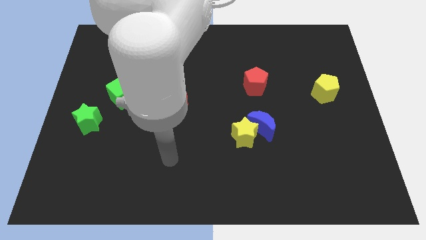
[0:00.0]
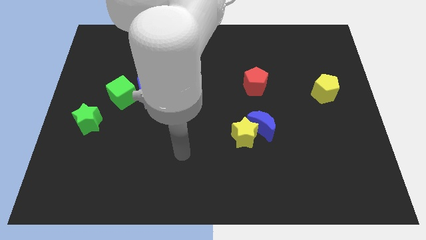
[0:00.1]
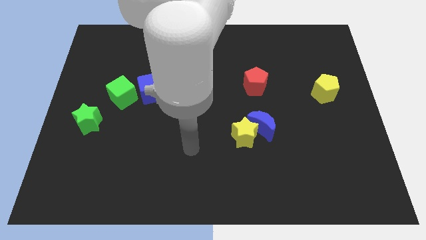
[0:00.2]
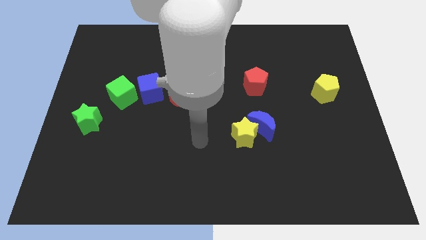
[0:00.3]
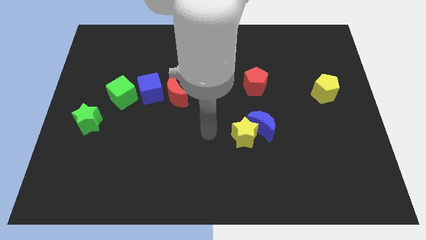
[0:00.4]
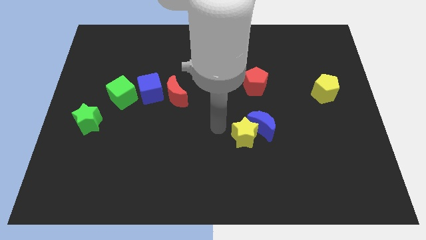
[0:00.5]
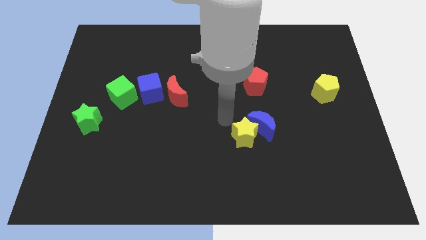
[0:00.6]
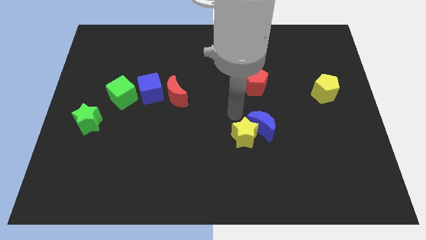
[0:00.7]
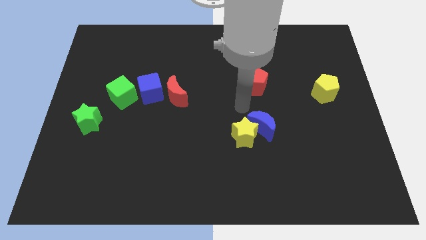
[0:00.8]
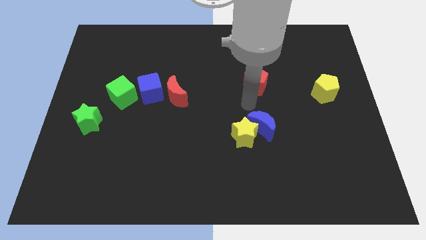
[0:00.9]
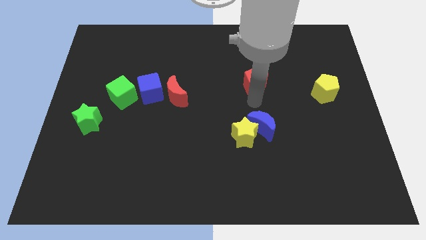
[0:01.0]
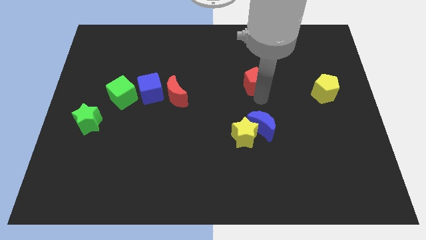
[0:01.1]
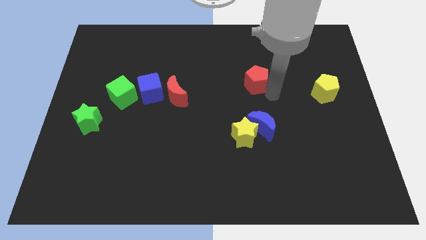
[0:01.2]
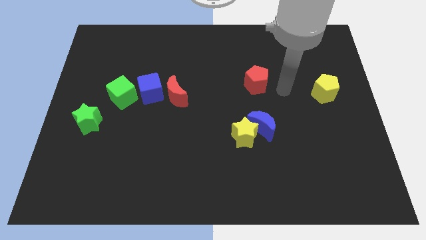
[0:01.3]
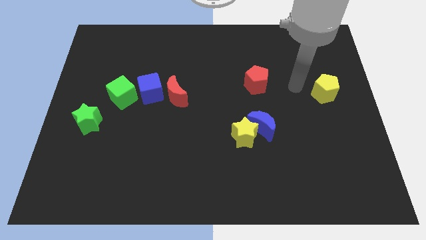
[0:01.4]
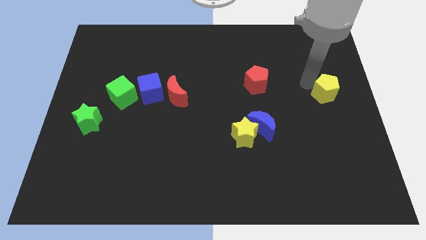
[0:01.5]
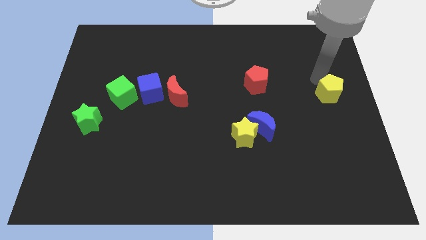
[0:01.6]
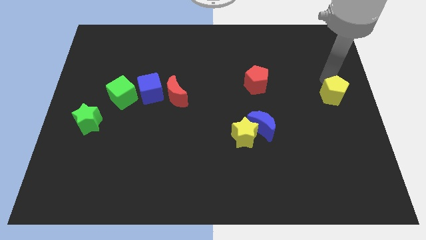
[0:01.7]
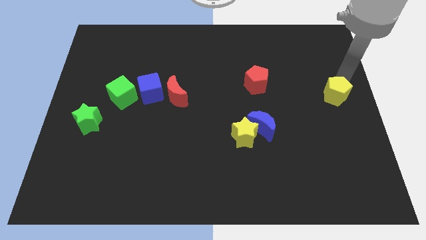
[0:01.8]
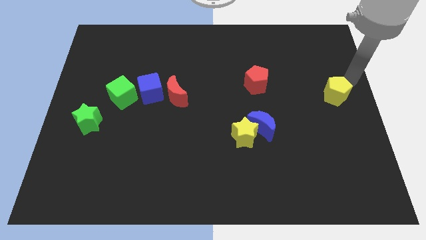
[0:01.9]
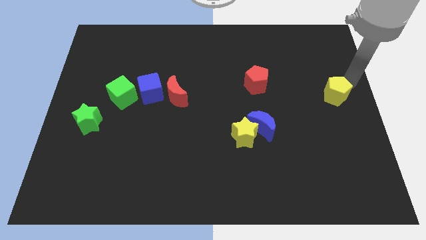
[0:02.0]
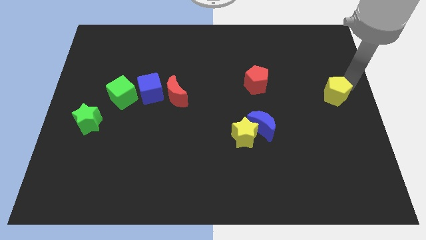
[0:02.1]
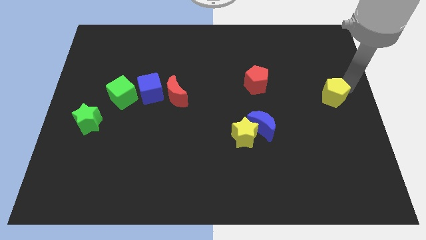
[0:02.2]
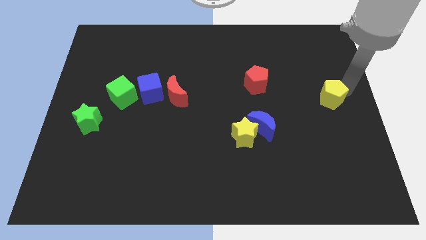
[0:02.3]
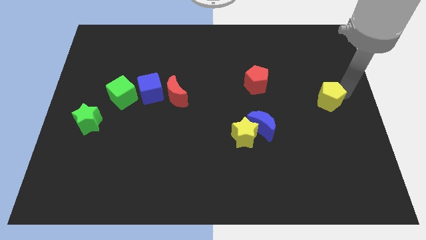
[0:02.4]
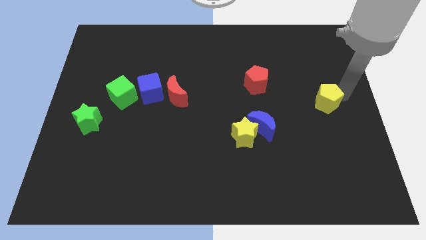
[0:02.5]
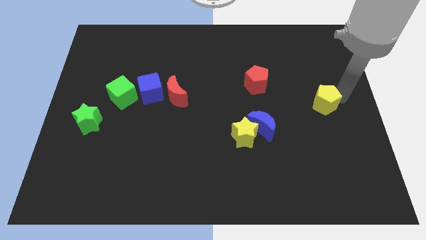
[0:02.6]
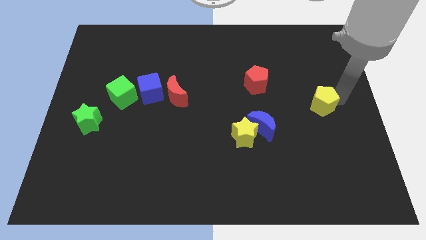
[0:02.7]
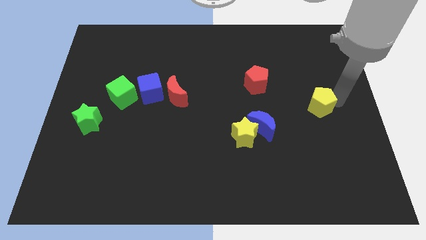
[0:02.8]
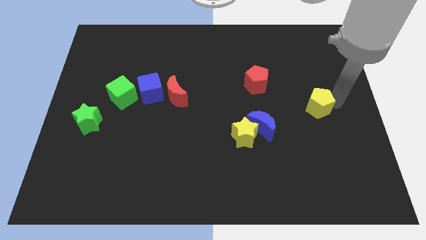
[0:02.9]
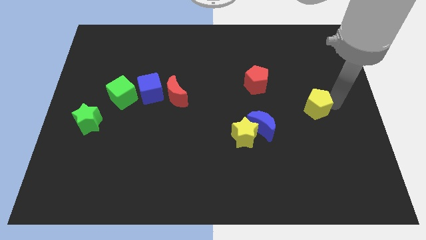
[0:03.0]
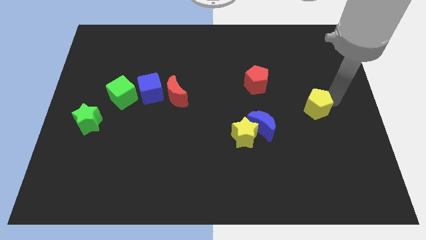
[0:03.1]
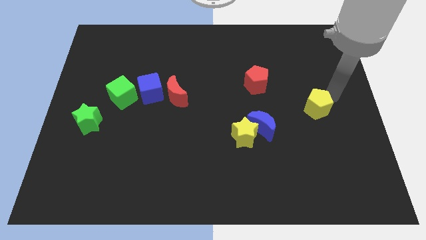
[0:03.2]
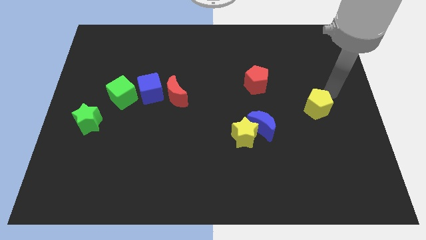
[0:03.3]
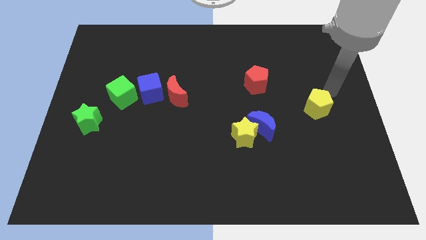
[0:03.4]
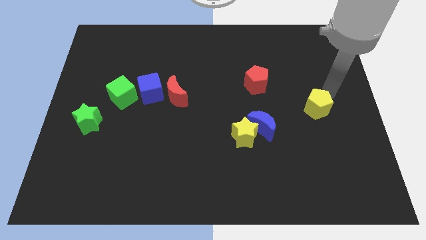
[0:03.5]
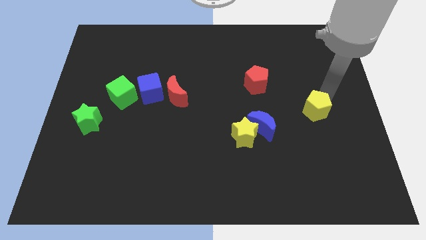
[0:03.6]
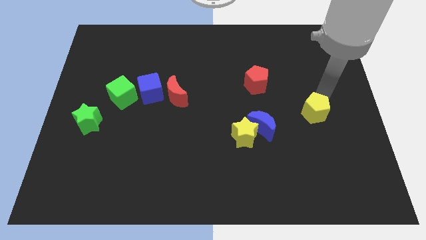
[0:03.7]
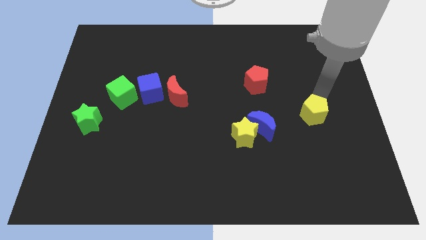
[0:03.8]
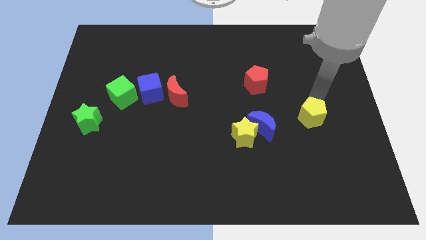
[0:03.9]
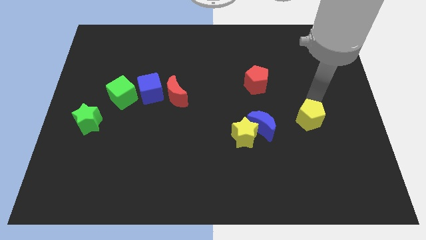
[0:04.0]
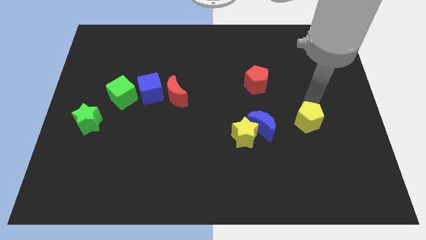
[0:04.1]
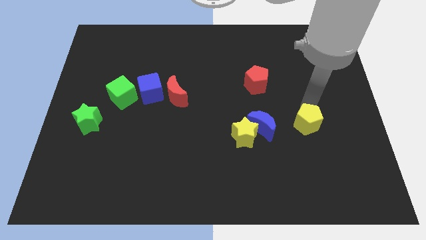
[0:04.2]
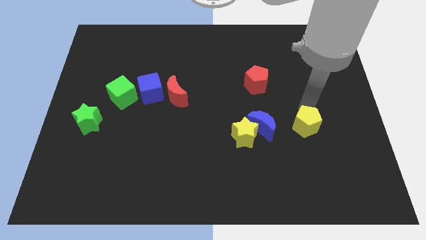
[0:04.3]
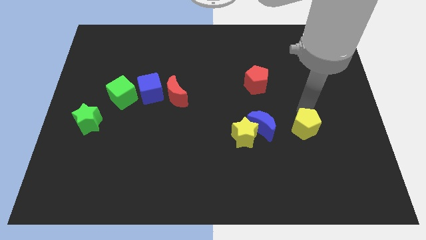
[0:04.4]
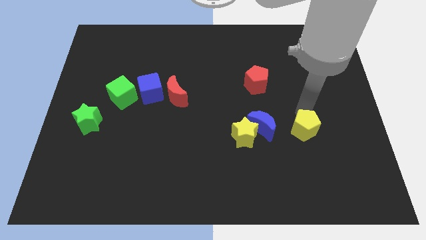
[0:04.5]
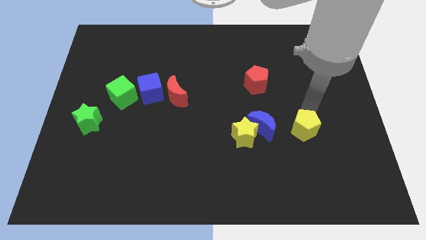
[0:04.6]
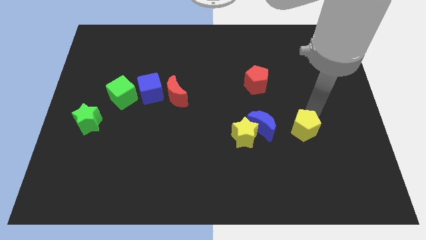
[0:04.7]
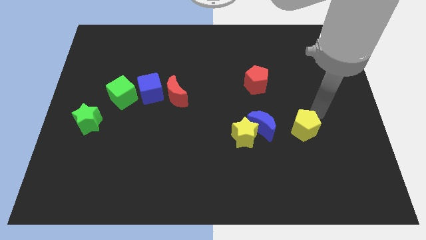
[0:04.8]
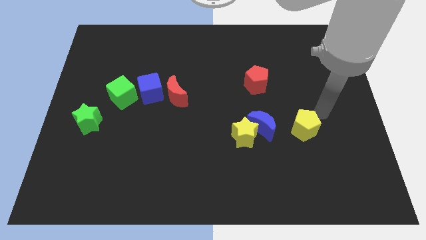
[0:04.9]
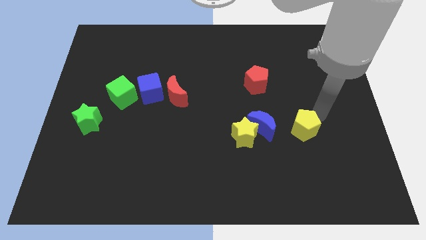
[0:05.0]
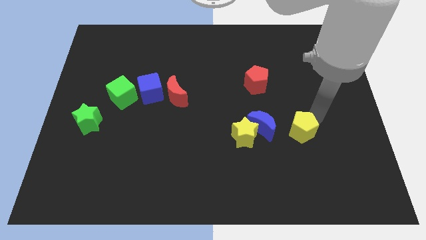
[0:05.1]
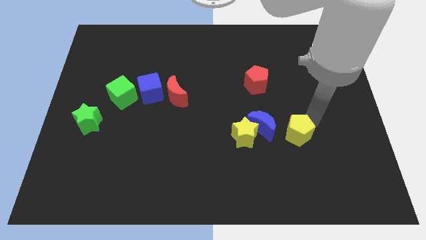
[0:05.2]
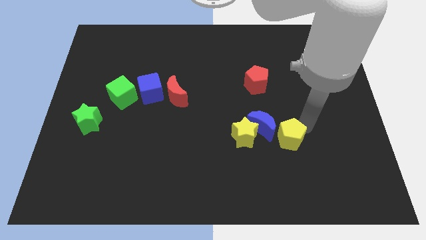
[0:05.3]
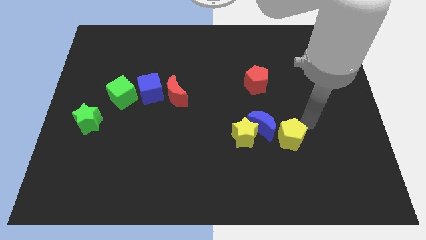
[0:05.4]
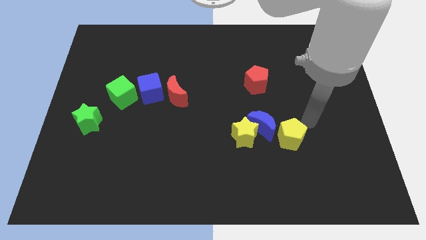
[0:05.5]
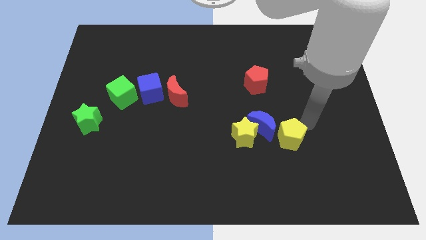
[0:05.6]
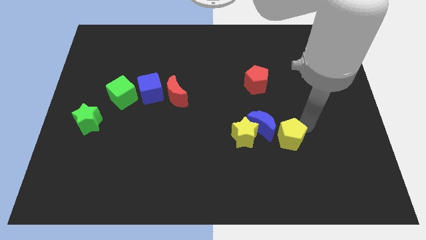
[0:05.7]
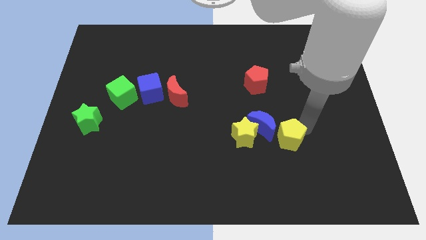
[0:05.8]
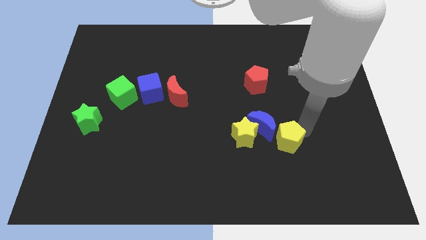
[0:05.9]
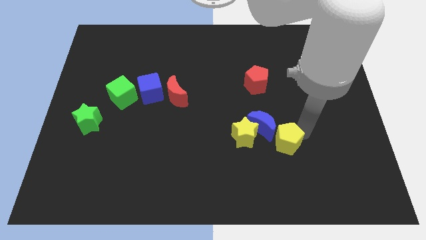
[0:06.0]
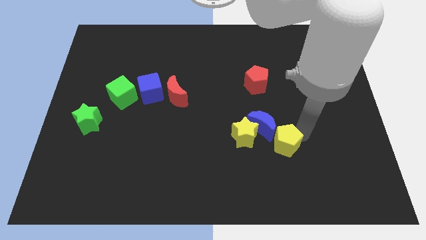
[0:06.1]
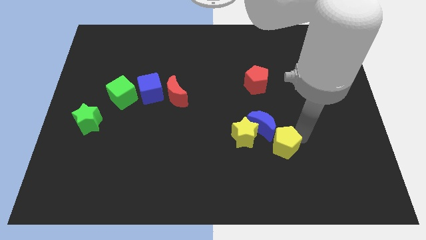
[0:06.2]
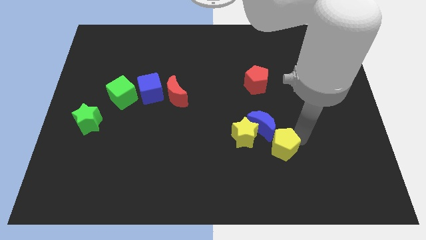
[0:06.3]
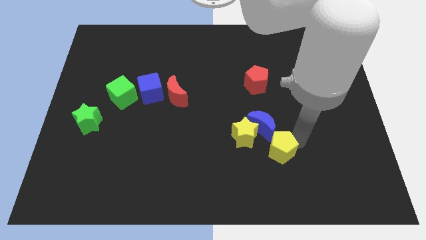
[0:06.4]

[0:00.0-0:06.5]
move the yellow pentagon down and then to the left

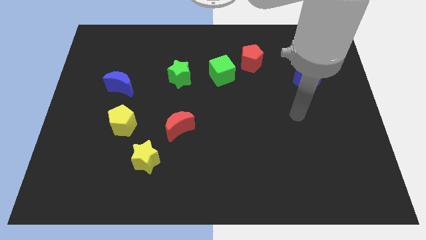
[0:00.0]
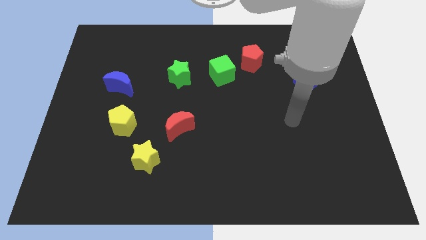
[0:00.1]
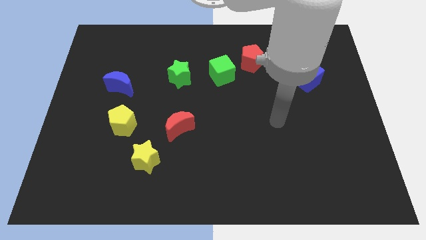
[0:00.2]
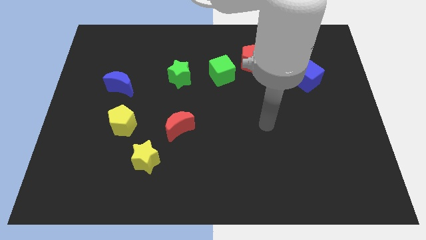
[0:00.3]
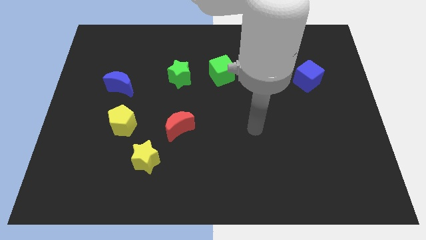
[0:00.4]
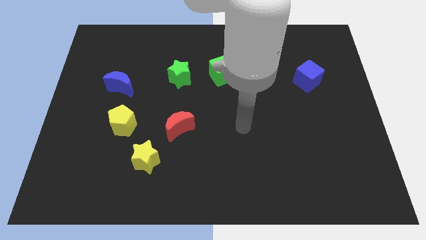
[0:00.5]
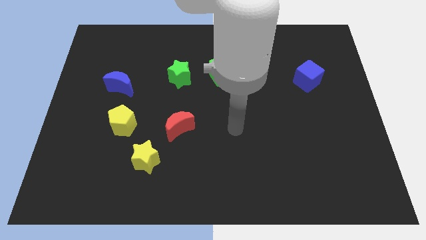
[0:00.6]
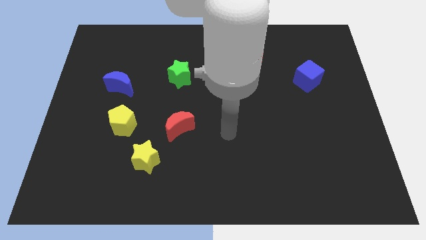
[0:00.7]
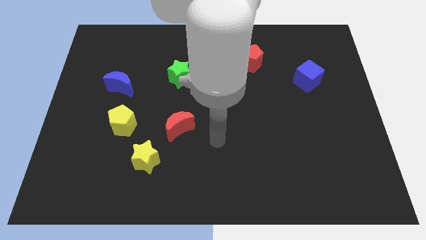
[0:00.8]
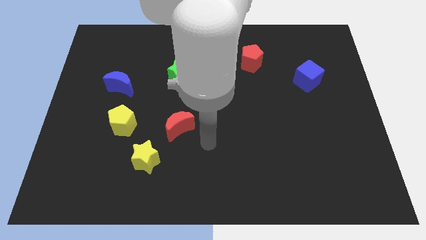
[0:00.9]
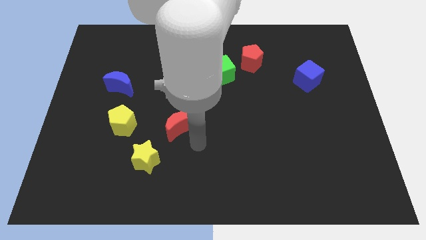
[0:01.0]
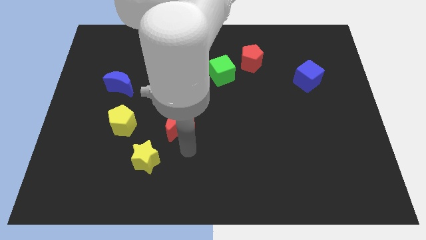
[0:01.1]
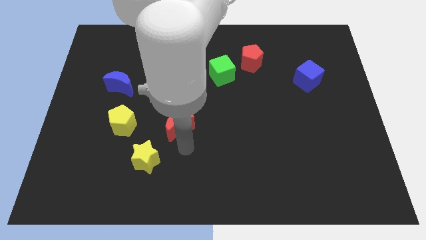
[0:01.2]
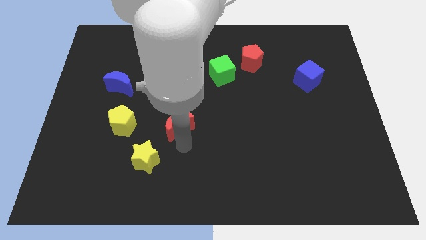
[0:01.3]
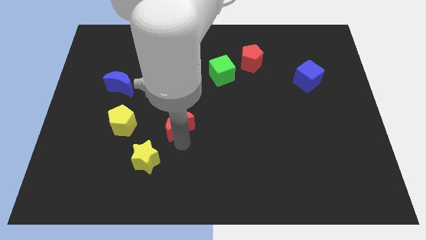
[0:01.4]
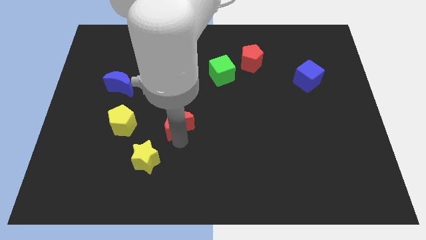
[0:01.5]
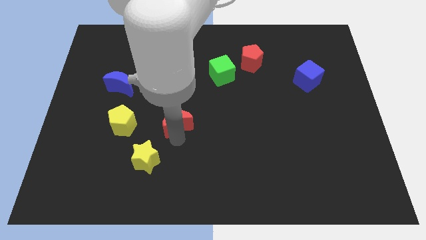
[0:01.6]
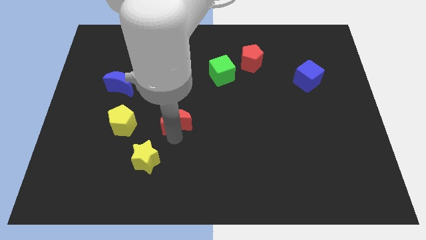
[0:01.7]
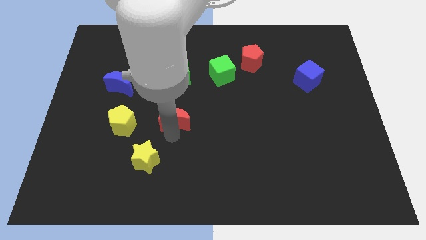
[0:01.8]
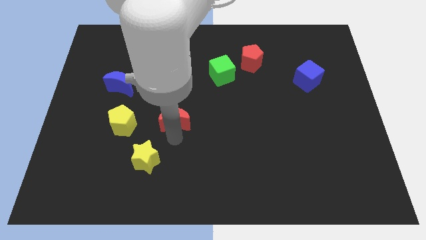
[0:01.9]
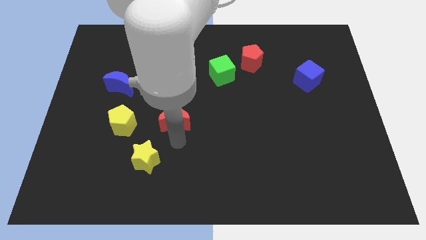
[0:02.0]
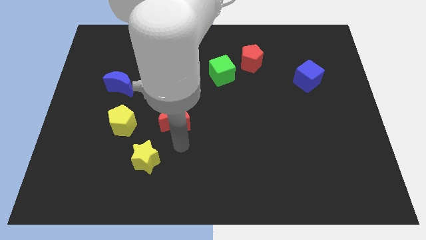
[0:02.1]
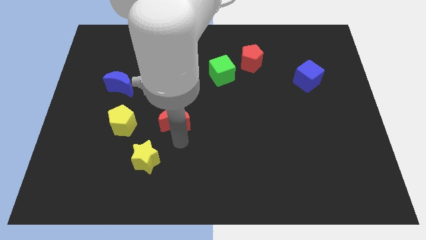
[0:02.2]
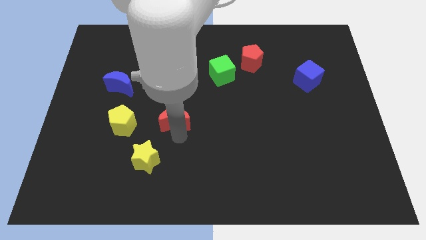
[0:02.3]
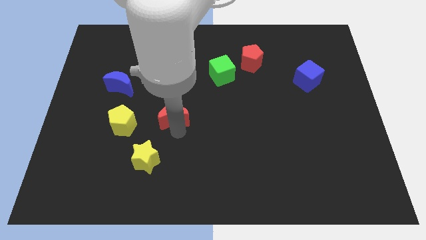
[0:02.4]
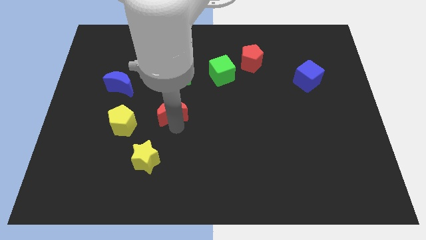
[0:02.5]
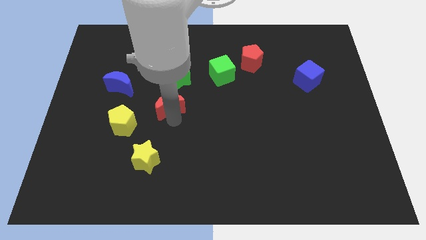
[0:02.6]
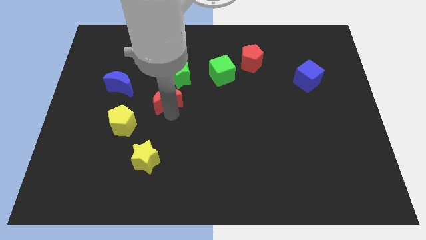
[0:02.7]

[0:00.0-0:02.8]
move the red moon up somewhat
